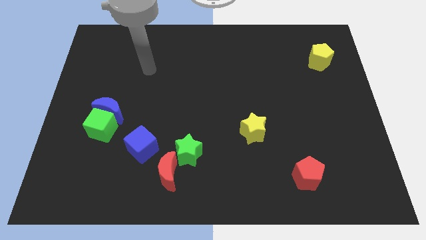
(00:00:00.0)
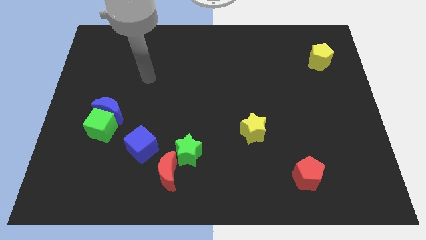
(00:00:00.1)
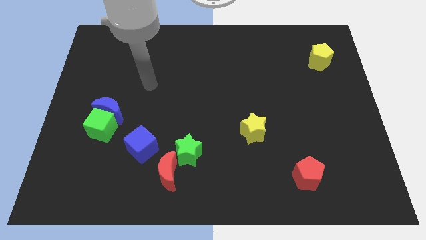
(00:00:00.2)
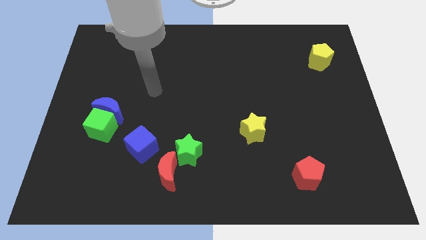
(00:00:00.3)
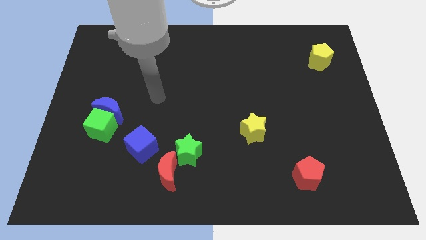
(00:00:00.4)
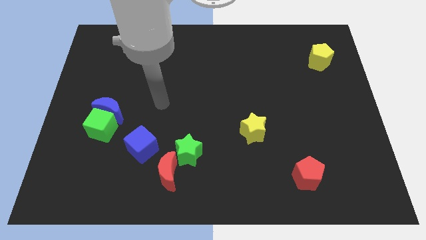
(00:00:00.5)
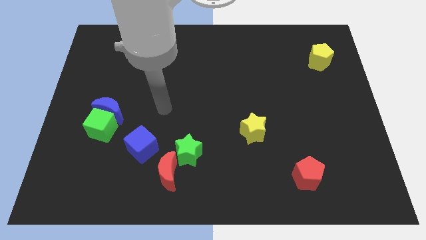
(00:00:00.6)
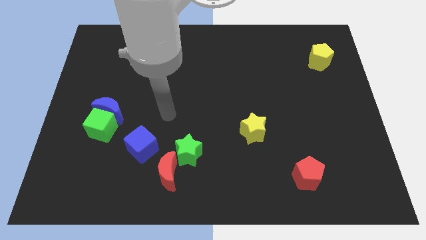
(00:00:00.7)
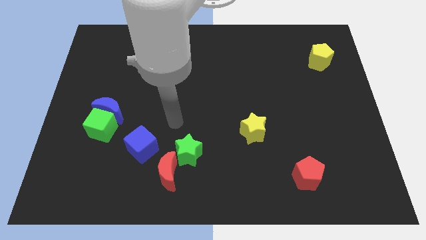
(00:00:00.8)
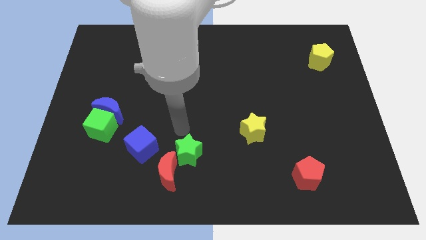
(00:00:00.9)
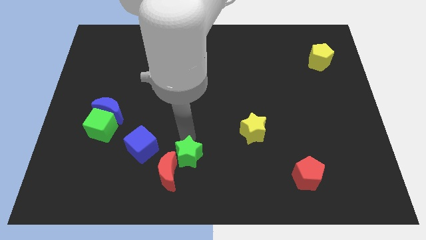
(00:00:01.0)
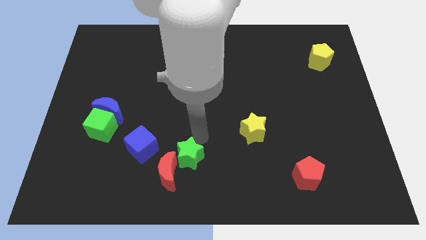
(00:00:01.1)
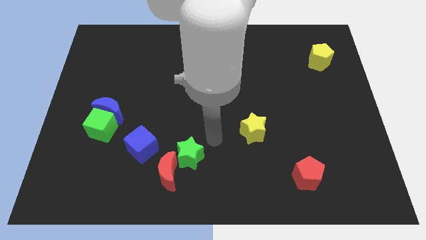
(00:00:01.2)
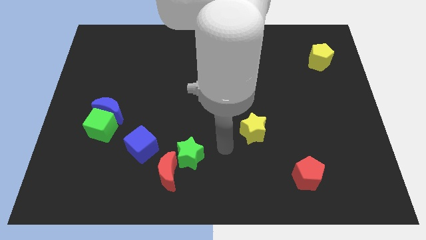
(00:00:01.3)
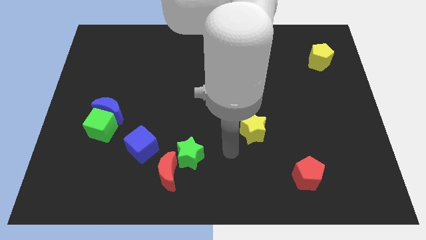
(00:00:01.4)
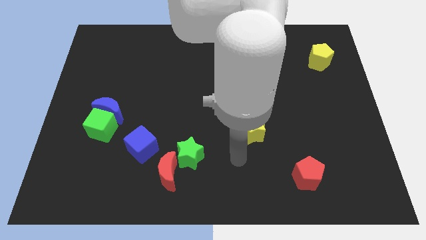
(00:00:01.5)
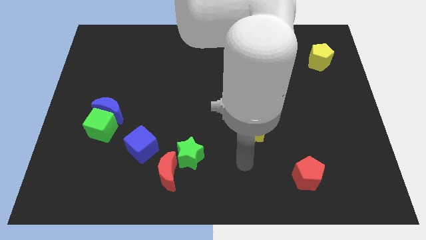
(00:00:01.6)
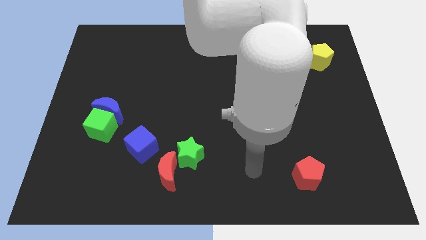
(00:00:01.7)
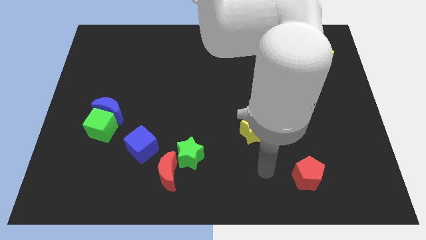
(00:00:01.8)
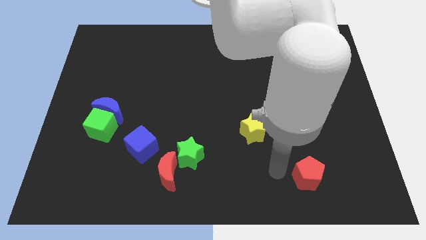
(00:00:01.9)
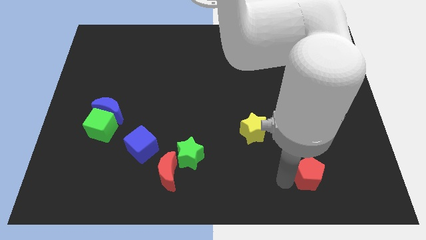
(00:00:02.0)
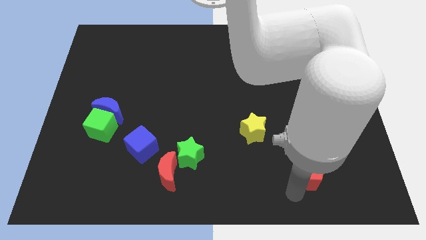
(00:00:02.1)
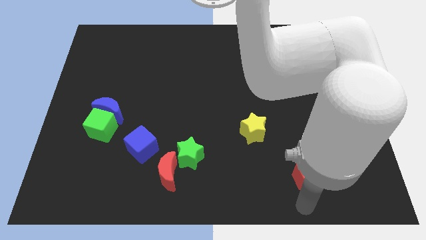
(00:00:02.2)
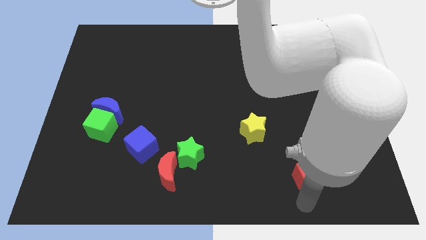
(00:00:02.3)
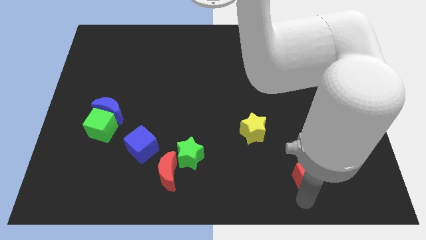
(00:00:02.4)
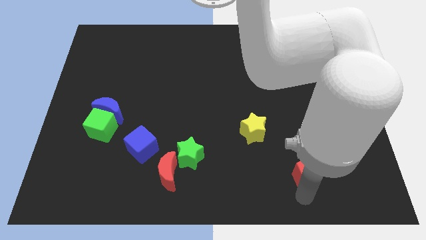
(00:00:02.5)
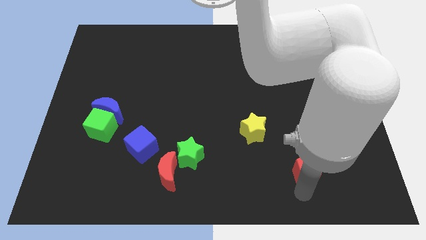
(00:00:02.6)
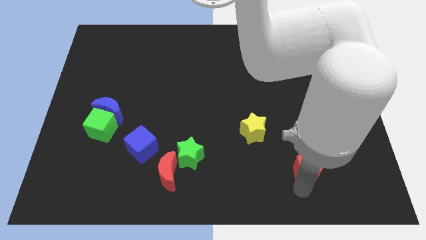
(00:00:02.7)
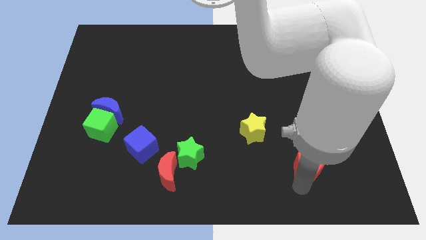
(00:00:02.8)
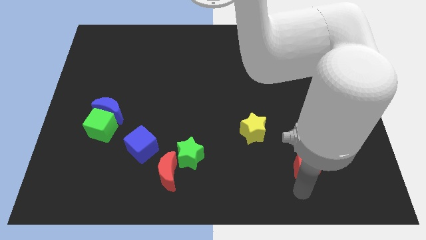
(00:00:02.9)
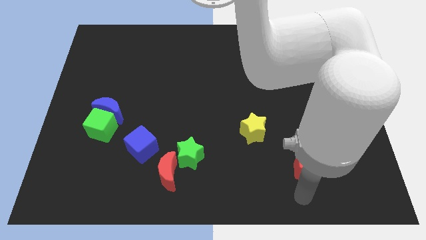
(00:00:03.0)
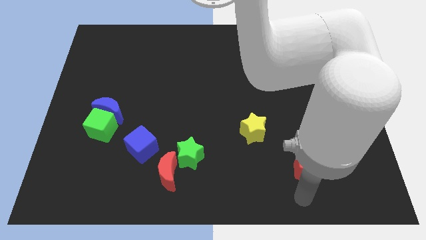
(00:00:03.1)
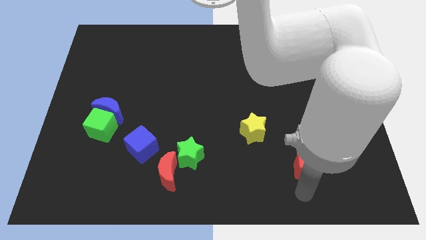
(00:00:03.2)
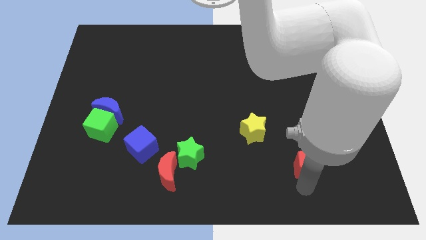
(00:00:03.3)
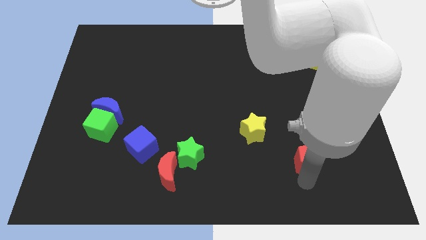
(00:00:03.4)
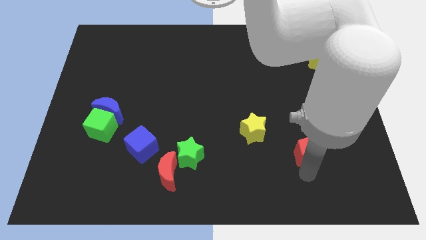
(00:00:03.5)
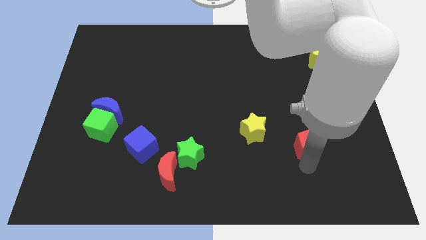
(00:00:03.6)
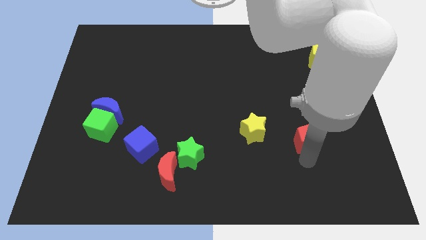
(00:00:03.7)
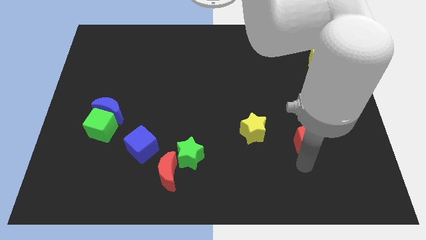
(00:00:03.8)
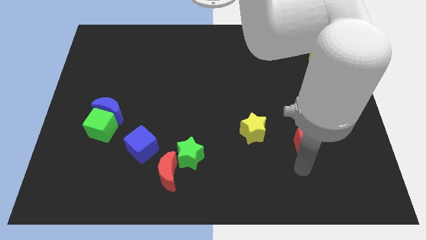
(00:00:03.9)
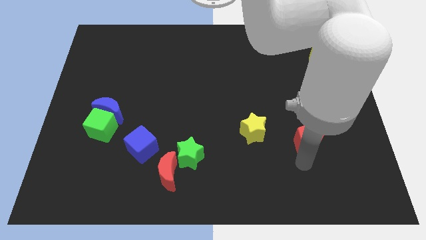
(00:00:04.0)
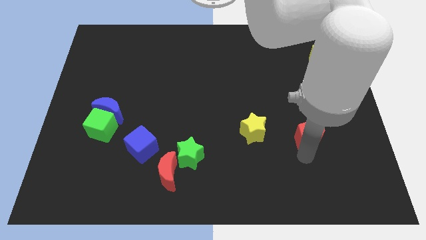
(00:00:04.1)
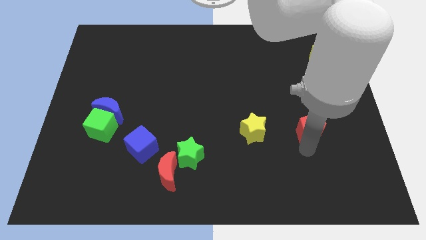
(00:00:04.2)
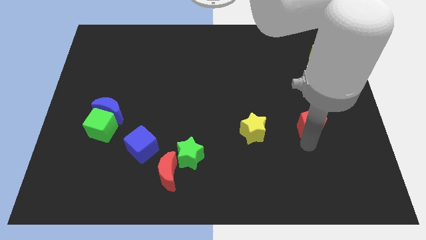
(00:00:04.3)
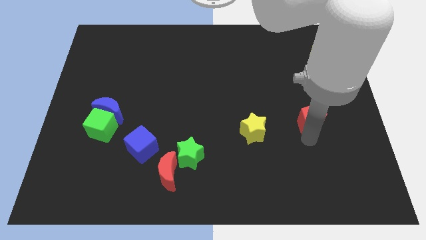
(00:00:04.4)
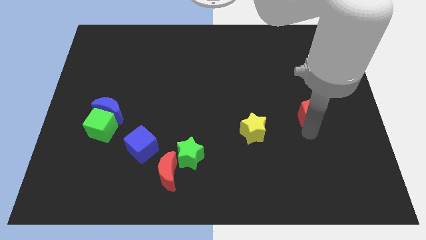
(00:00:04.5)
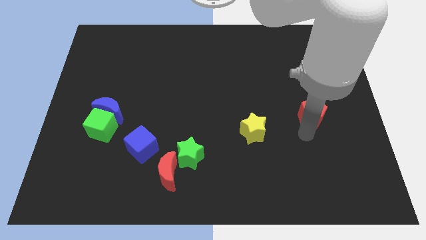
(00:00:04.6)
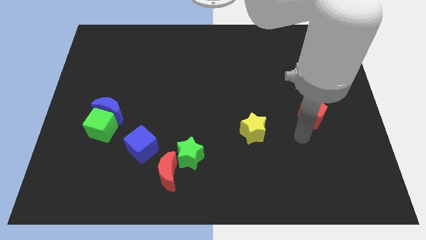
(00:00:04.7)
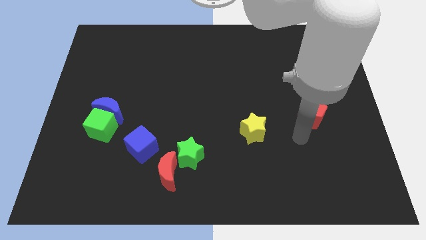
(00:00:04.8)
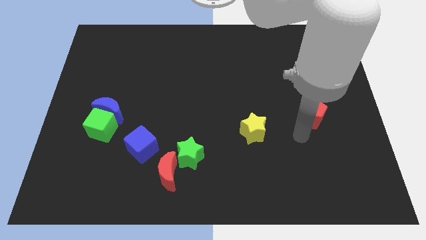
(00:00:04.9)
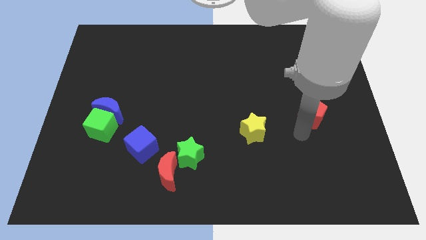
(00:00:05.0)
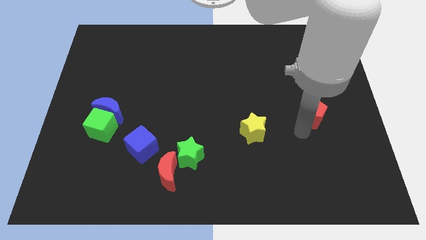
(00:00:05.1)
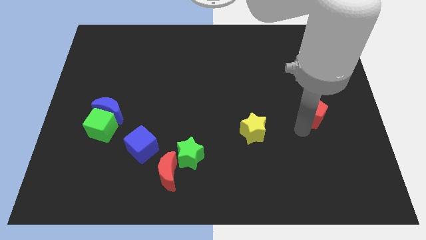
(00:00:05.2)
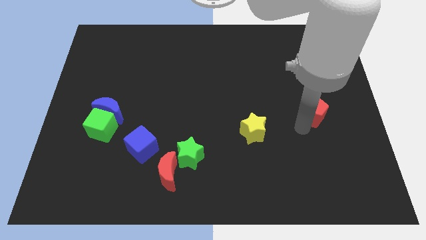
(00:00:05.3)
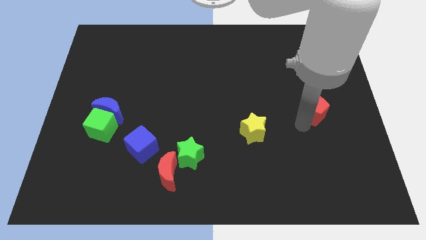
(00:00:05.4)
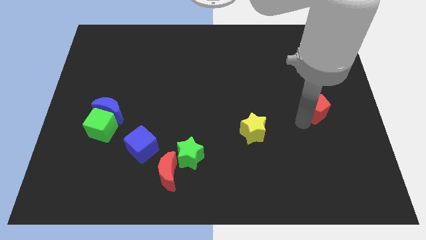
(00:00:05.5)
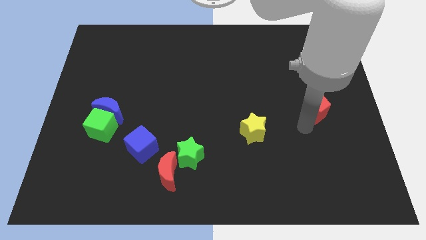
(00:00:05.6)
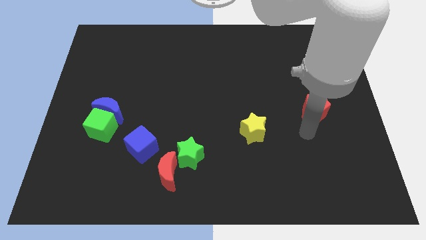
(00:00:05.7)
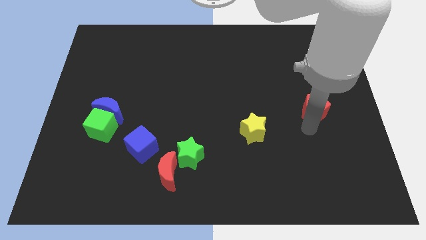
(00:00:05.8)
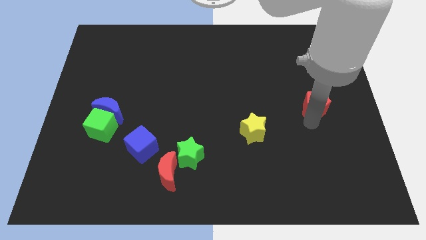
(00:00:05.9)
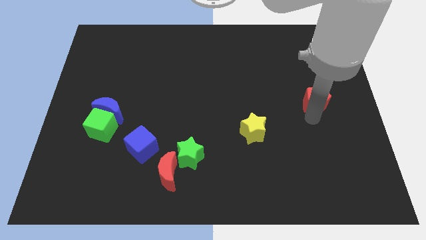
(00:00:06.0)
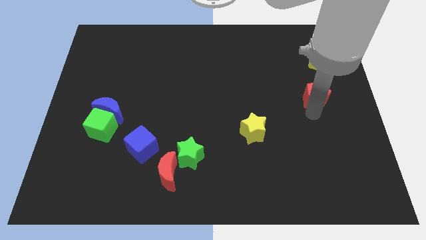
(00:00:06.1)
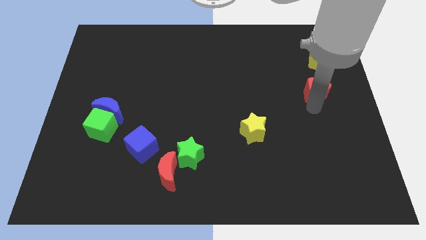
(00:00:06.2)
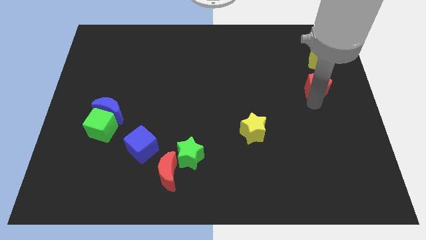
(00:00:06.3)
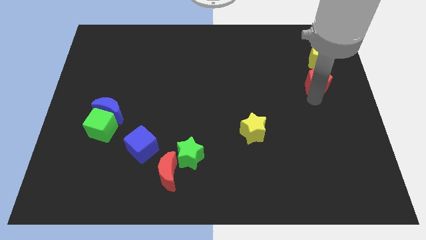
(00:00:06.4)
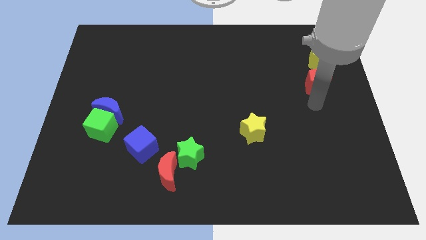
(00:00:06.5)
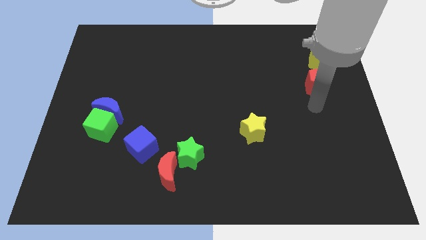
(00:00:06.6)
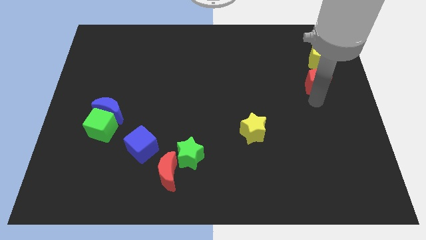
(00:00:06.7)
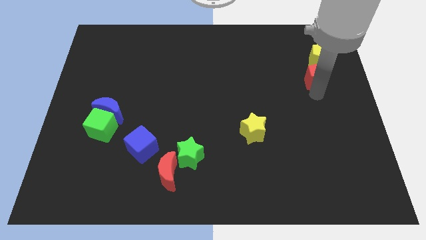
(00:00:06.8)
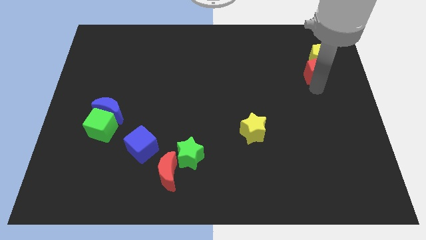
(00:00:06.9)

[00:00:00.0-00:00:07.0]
push the red pentagon close to the yellow pentagon

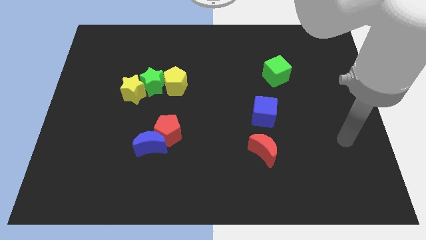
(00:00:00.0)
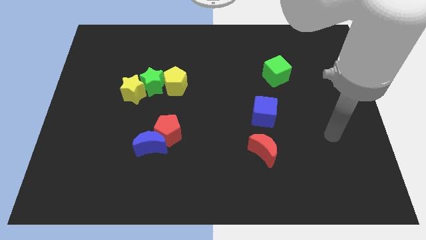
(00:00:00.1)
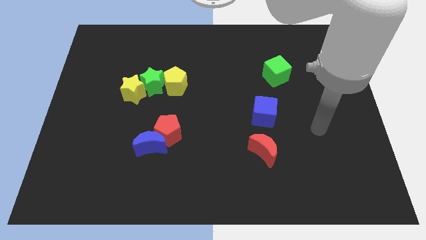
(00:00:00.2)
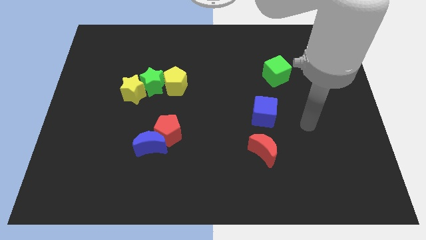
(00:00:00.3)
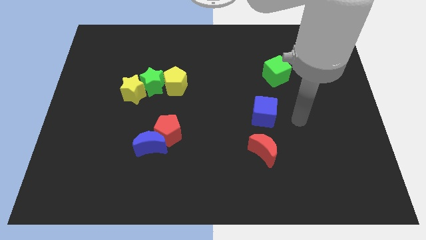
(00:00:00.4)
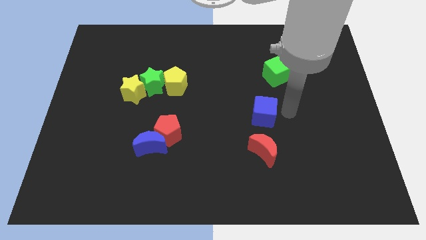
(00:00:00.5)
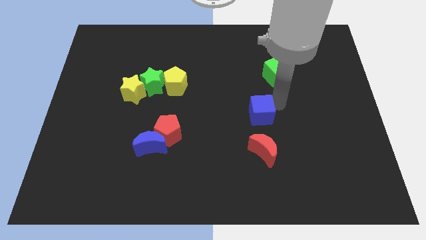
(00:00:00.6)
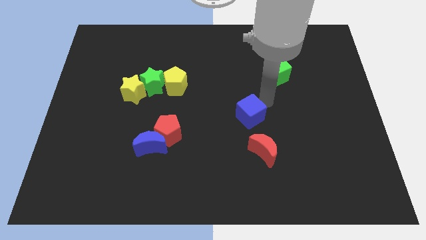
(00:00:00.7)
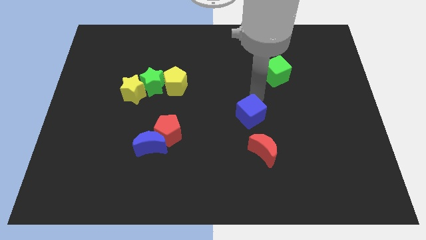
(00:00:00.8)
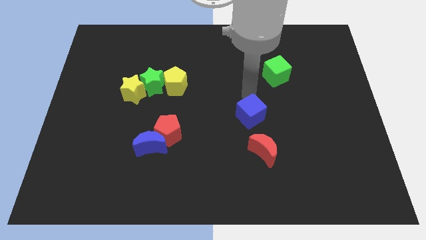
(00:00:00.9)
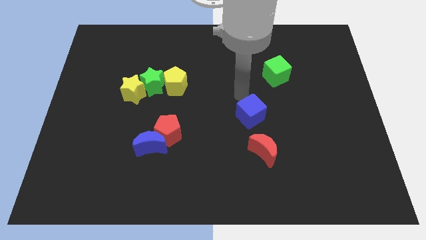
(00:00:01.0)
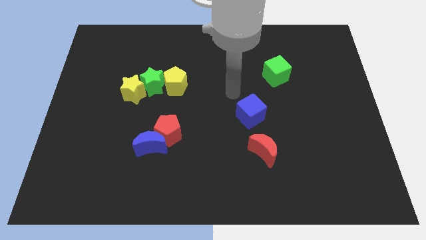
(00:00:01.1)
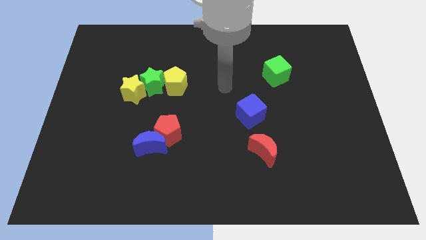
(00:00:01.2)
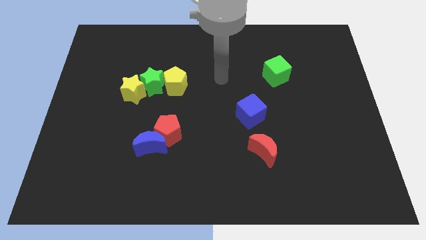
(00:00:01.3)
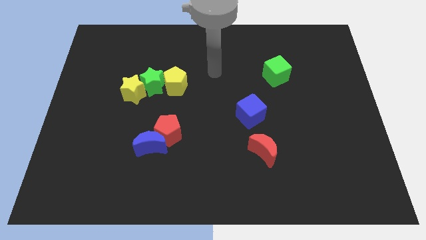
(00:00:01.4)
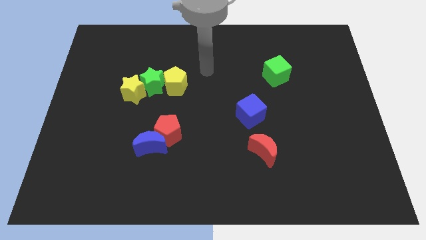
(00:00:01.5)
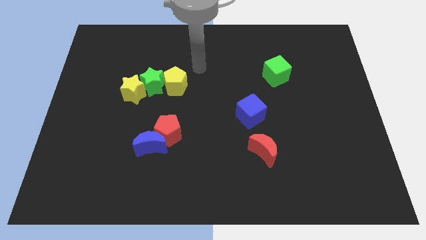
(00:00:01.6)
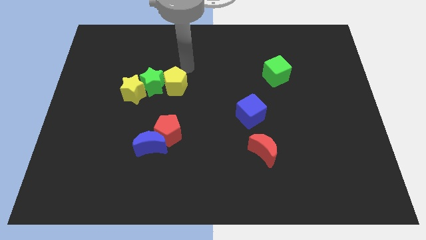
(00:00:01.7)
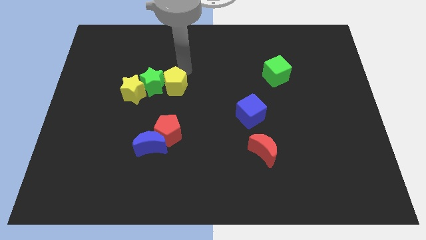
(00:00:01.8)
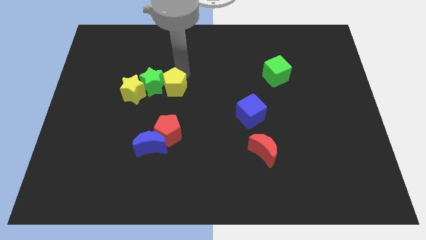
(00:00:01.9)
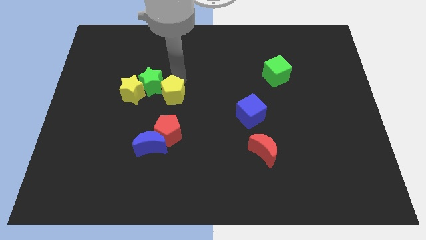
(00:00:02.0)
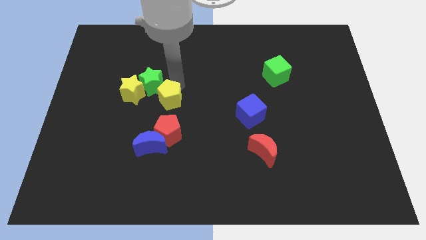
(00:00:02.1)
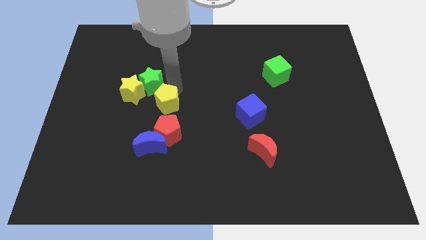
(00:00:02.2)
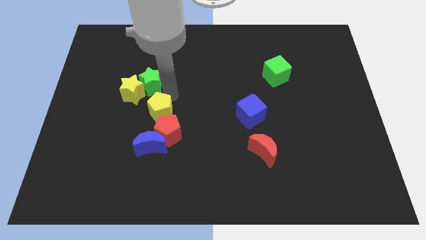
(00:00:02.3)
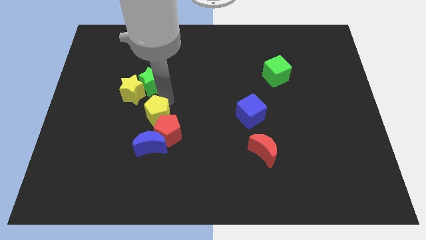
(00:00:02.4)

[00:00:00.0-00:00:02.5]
put the yellow pentagon next to the red pentagon
